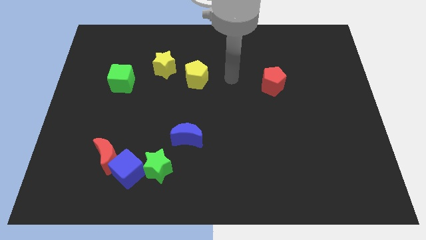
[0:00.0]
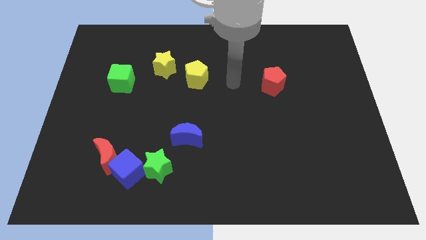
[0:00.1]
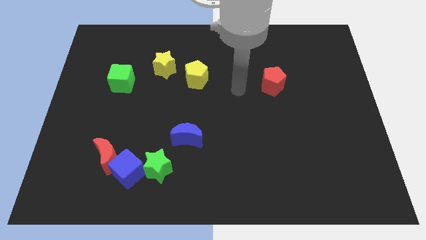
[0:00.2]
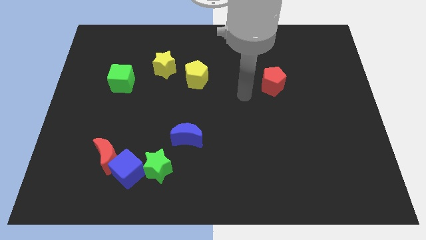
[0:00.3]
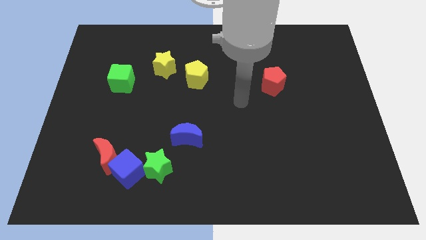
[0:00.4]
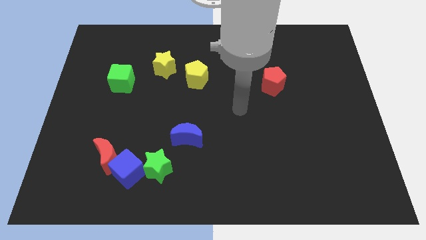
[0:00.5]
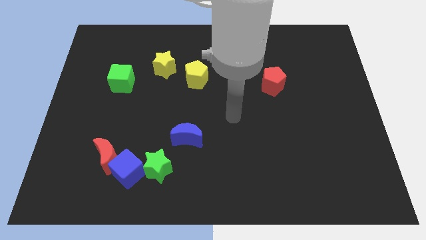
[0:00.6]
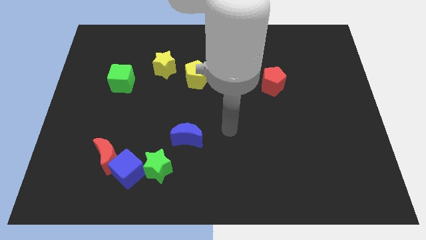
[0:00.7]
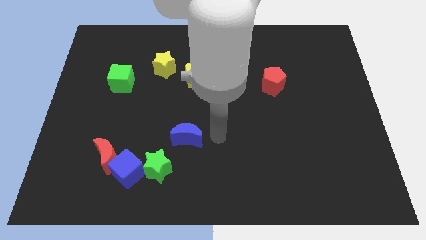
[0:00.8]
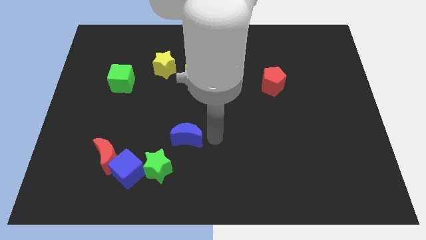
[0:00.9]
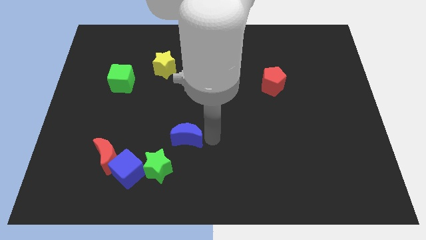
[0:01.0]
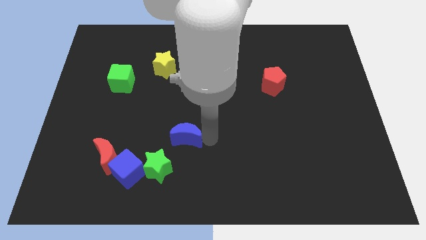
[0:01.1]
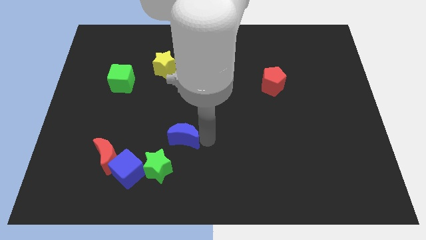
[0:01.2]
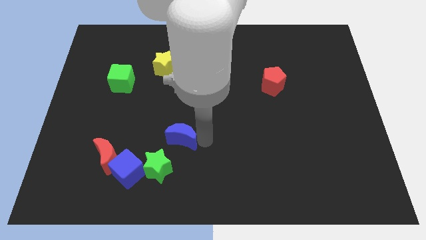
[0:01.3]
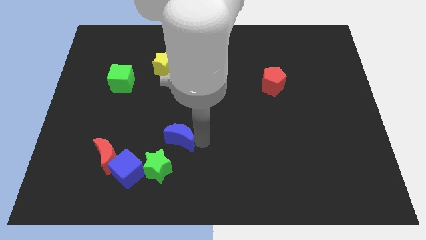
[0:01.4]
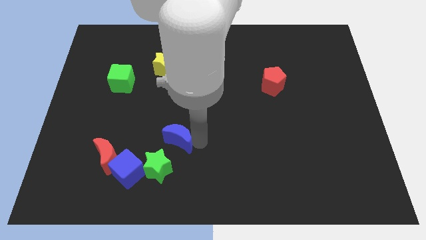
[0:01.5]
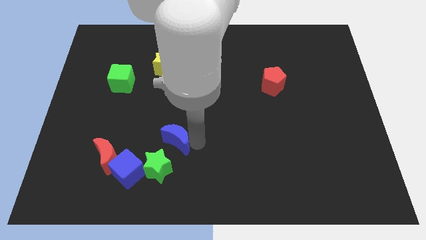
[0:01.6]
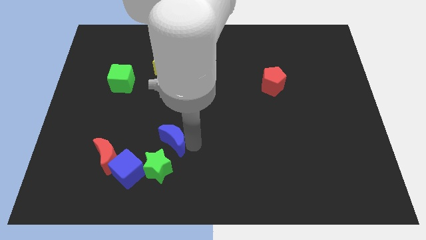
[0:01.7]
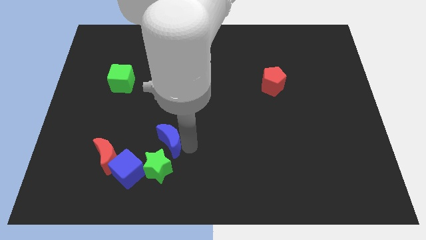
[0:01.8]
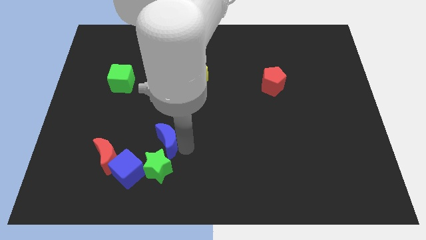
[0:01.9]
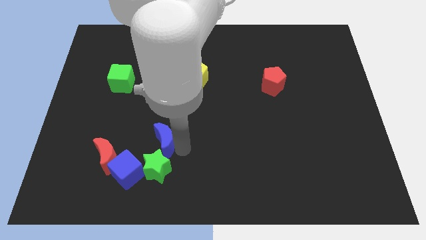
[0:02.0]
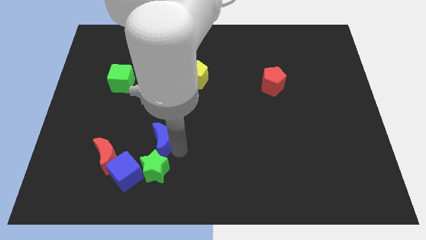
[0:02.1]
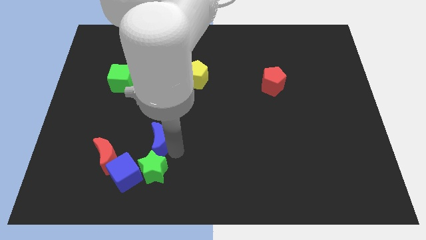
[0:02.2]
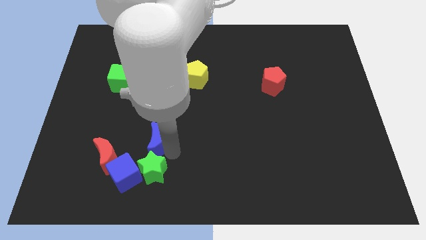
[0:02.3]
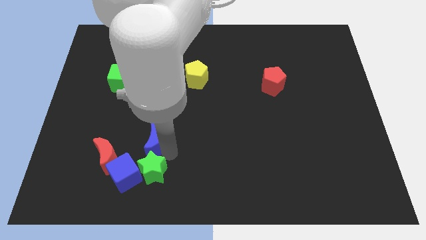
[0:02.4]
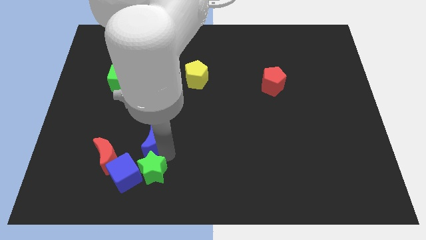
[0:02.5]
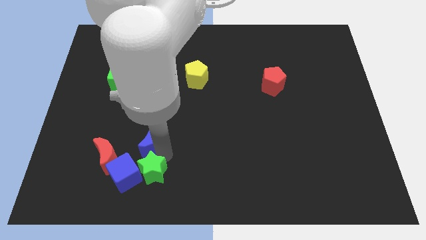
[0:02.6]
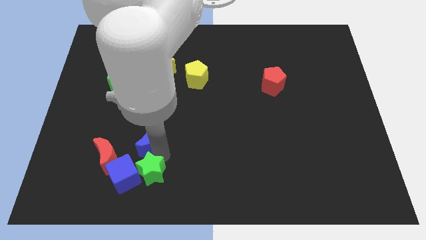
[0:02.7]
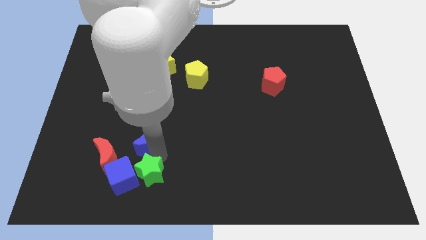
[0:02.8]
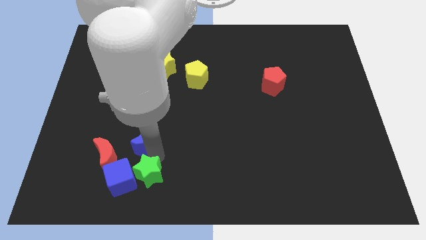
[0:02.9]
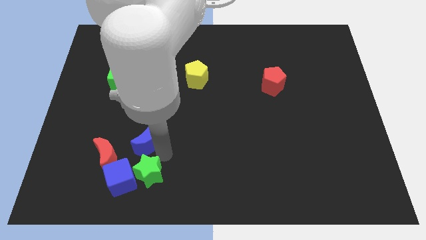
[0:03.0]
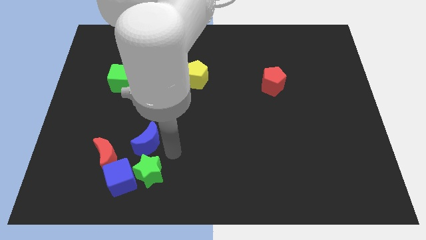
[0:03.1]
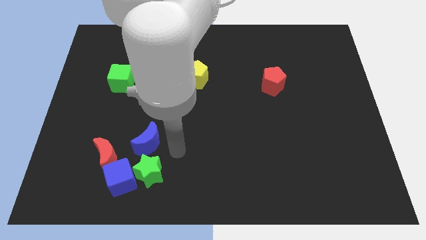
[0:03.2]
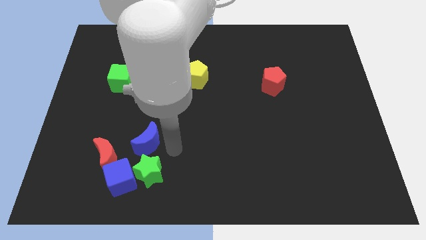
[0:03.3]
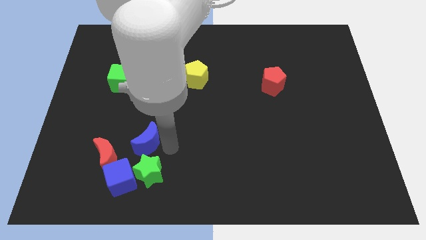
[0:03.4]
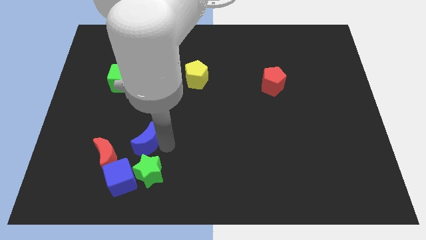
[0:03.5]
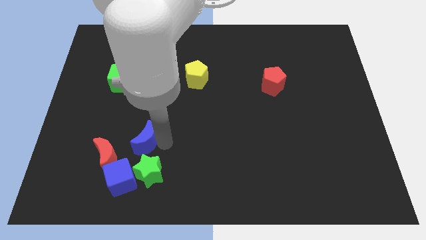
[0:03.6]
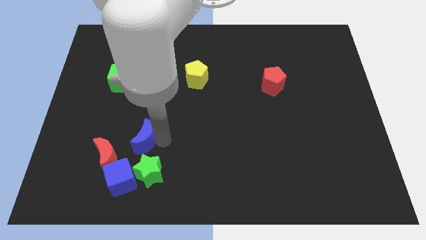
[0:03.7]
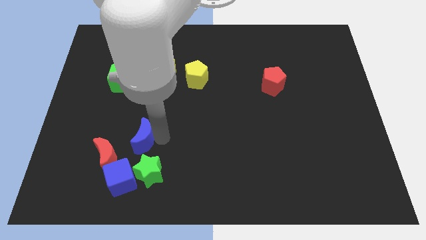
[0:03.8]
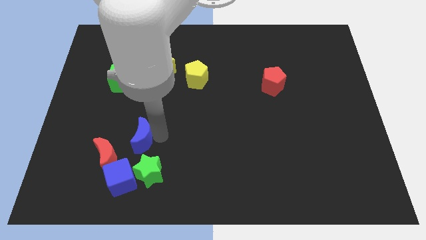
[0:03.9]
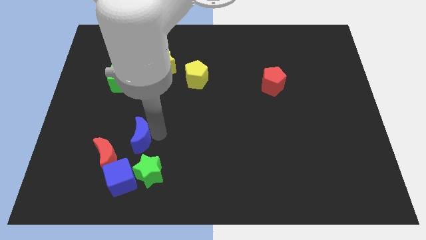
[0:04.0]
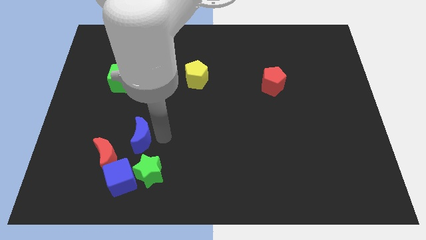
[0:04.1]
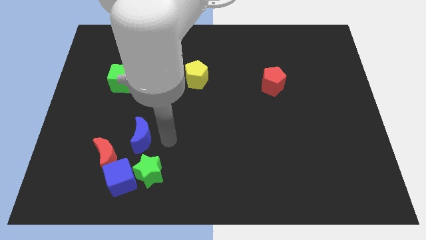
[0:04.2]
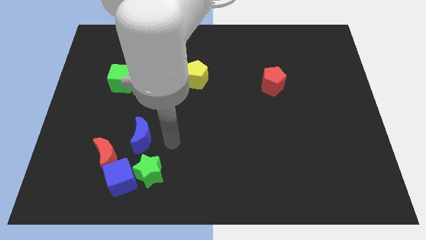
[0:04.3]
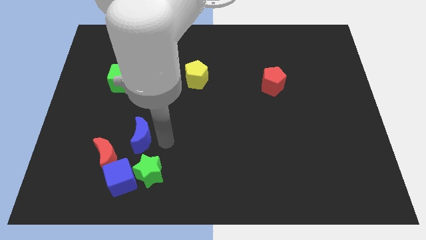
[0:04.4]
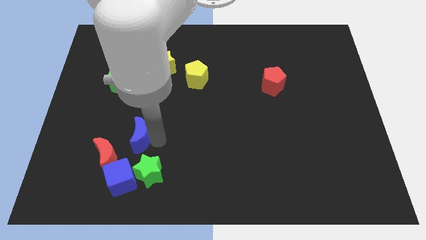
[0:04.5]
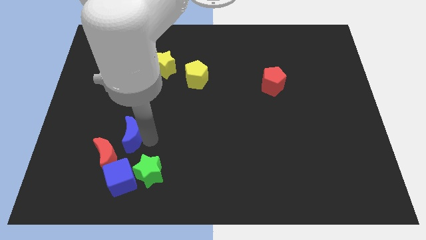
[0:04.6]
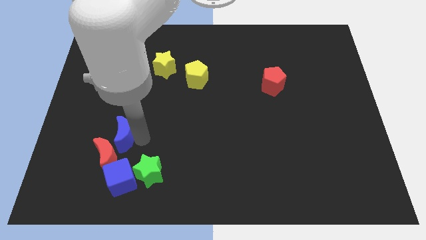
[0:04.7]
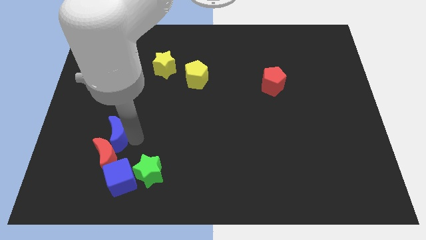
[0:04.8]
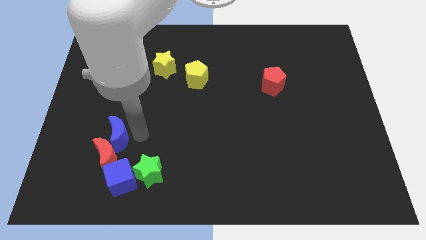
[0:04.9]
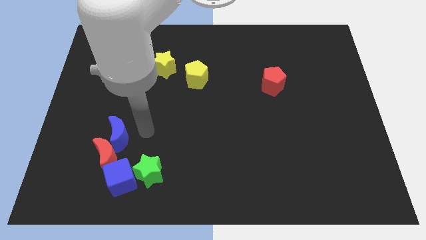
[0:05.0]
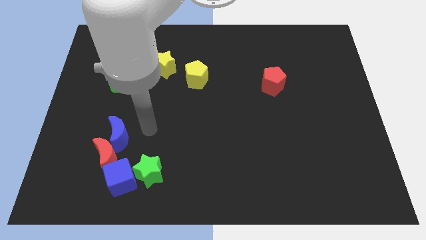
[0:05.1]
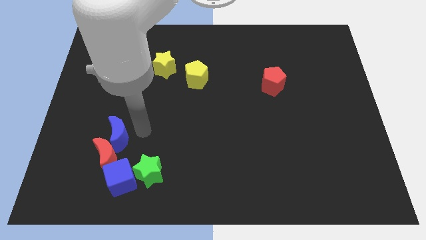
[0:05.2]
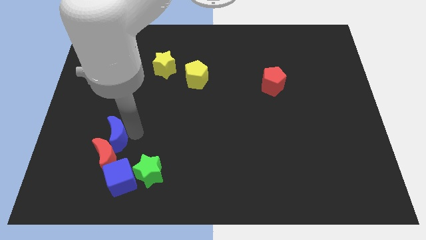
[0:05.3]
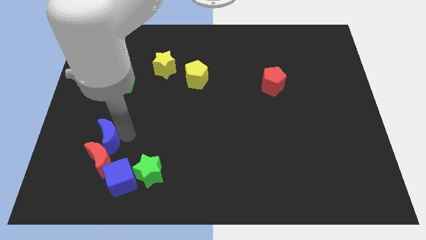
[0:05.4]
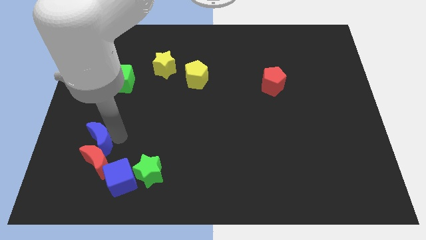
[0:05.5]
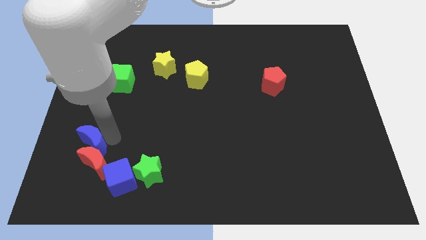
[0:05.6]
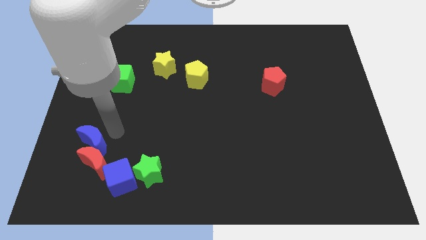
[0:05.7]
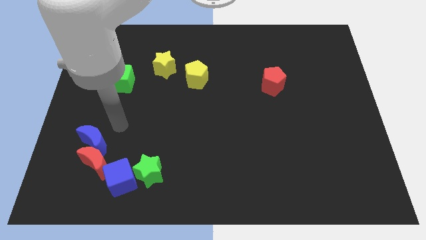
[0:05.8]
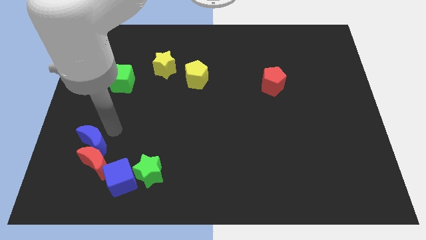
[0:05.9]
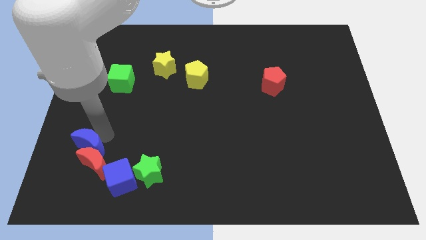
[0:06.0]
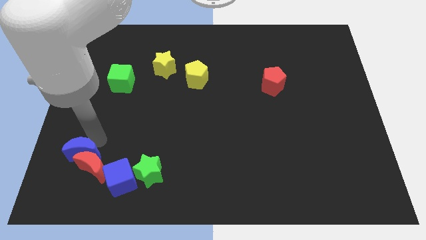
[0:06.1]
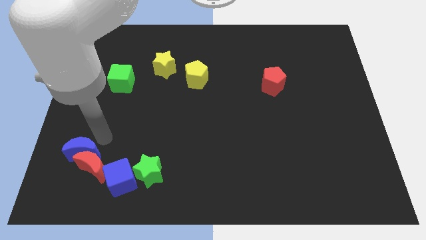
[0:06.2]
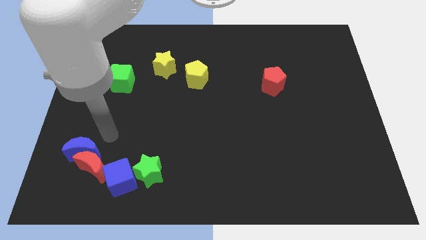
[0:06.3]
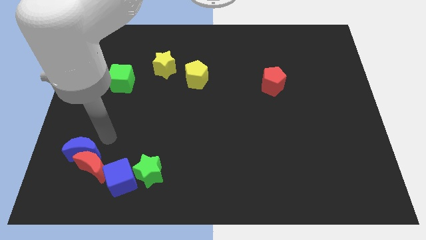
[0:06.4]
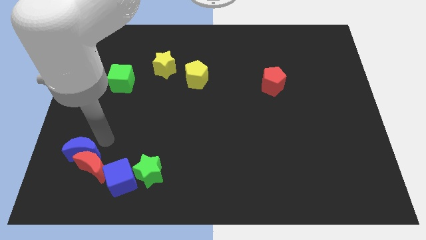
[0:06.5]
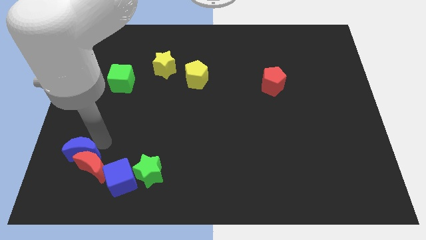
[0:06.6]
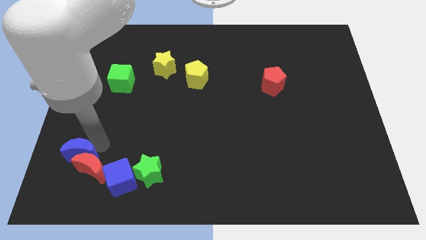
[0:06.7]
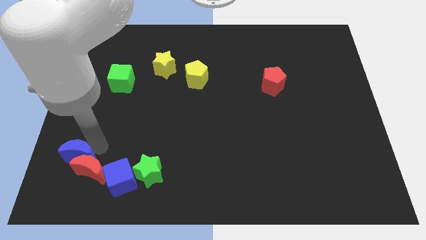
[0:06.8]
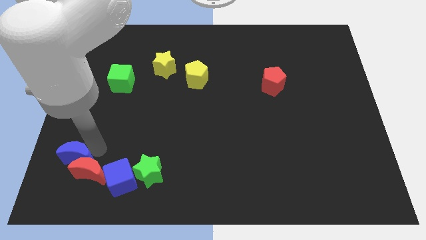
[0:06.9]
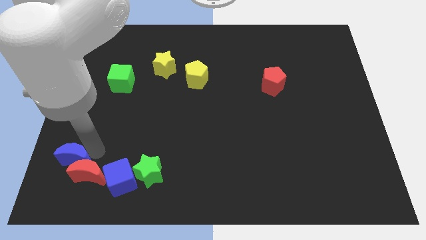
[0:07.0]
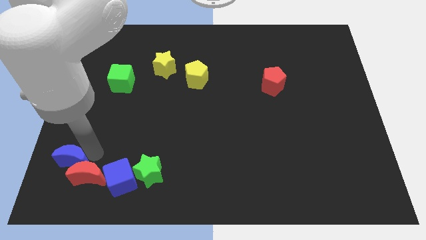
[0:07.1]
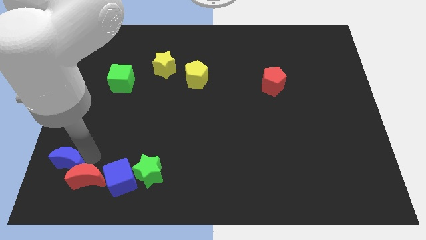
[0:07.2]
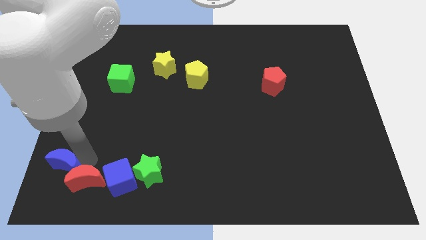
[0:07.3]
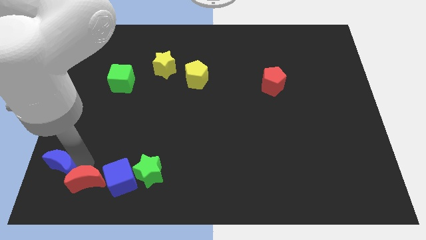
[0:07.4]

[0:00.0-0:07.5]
put the blue moon to the bottom left of the board
